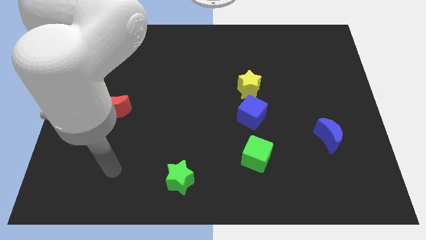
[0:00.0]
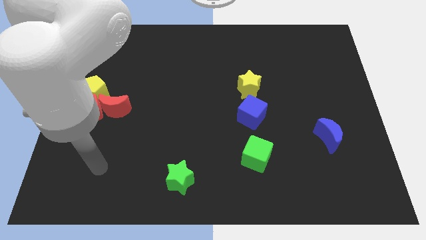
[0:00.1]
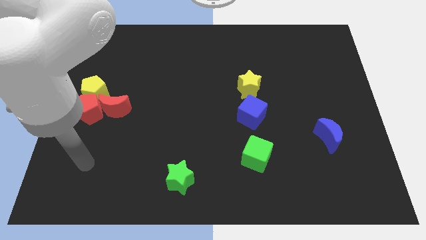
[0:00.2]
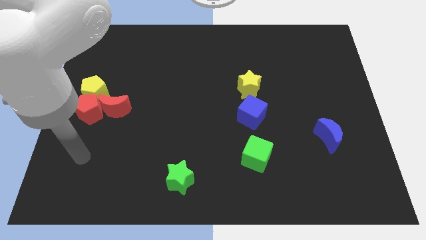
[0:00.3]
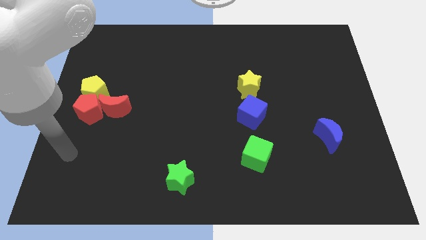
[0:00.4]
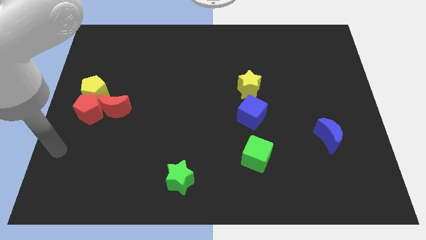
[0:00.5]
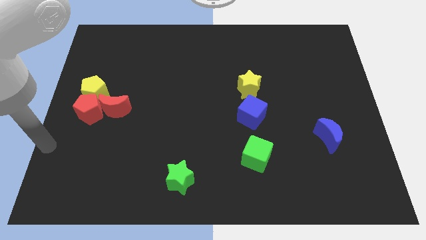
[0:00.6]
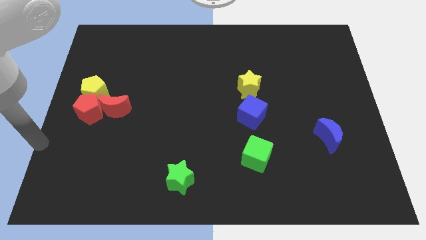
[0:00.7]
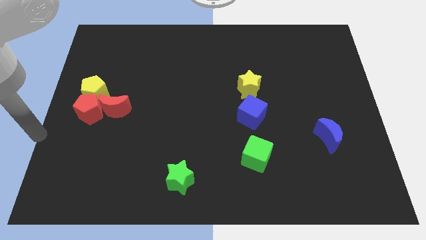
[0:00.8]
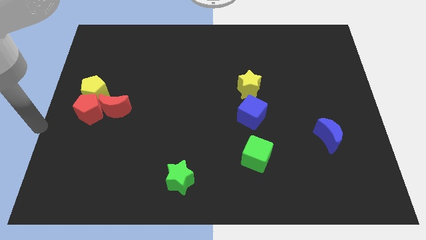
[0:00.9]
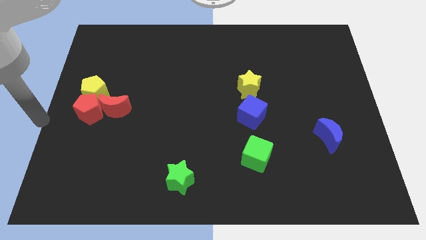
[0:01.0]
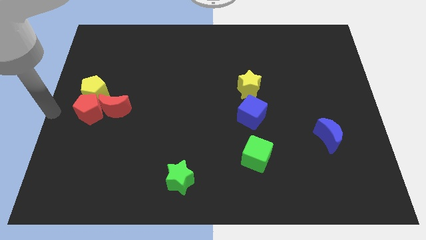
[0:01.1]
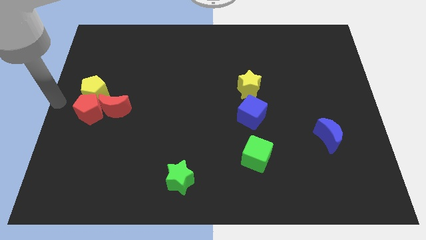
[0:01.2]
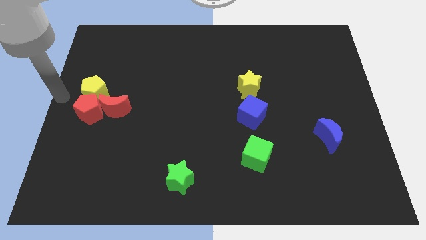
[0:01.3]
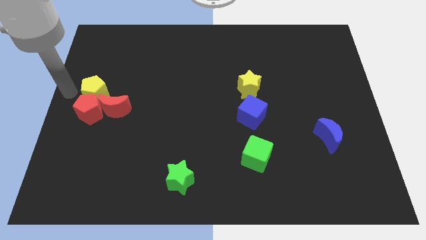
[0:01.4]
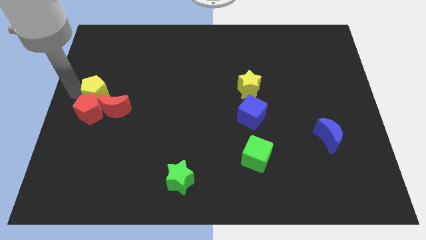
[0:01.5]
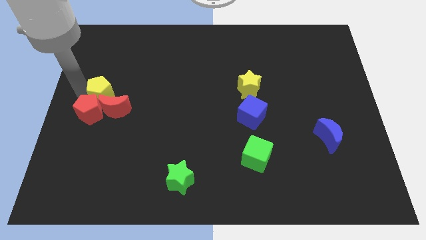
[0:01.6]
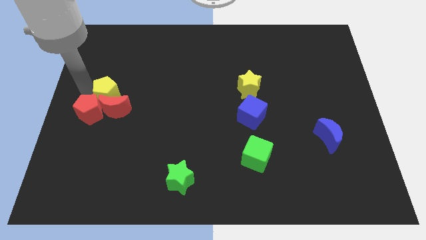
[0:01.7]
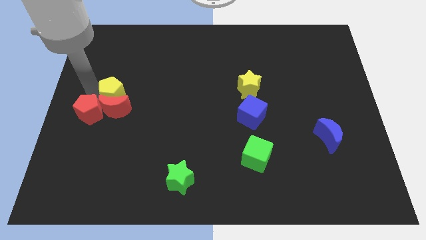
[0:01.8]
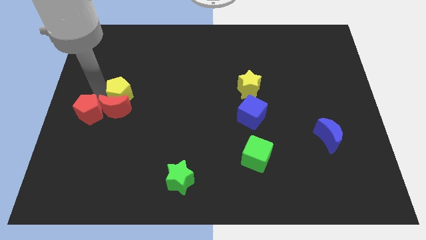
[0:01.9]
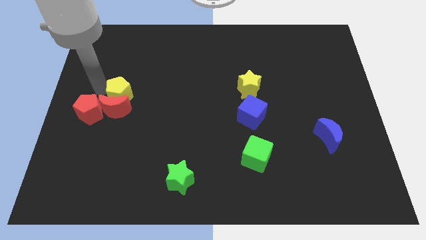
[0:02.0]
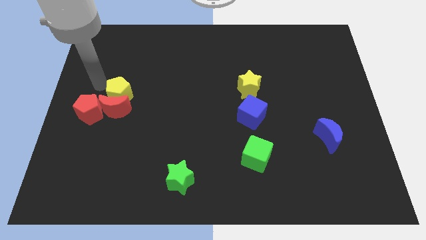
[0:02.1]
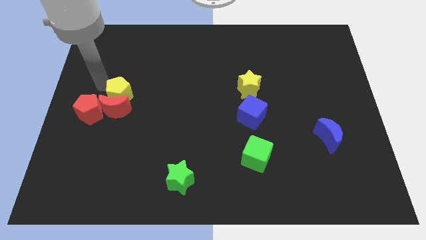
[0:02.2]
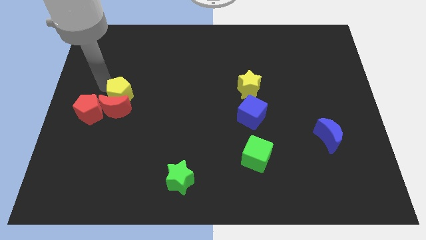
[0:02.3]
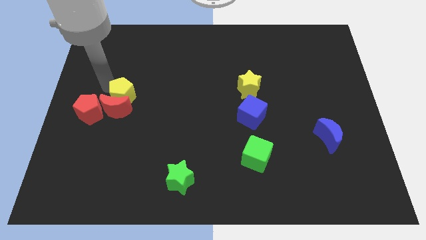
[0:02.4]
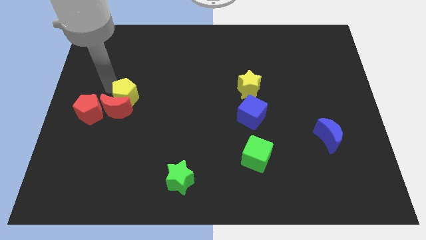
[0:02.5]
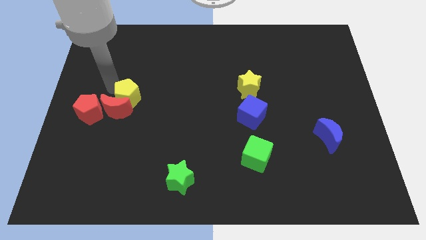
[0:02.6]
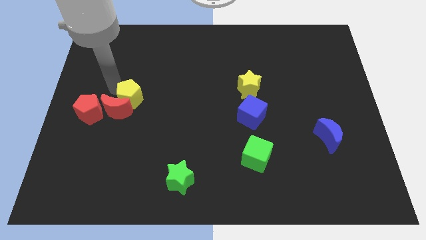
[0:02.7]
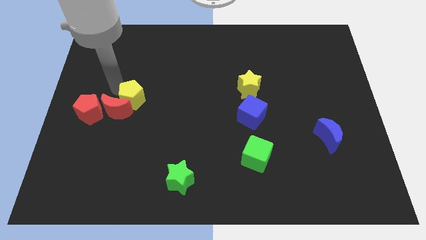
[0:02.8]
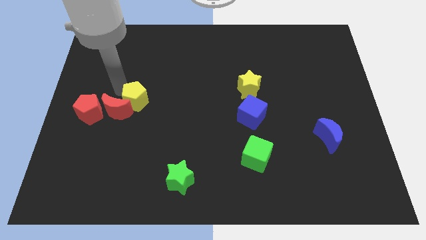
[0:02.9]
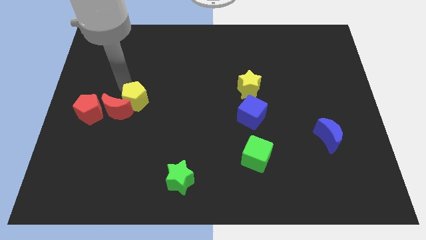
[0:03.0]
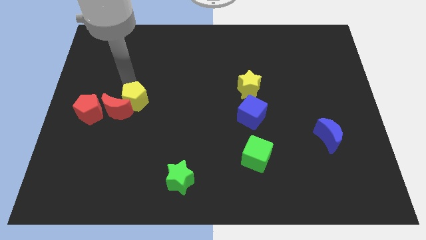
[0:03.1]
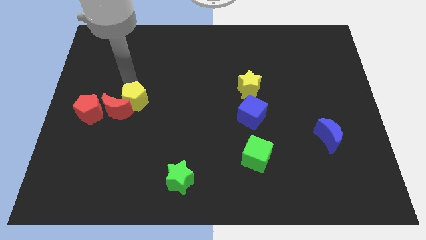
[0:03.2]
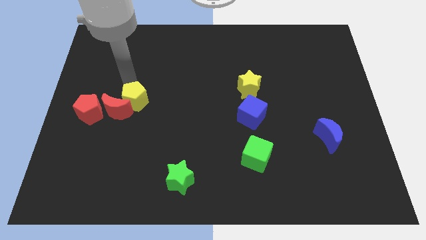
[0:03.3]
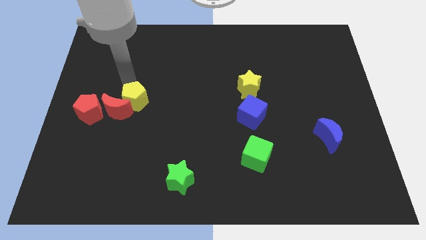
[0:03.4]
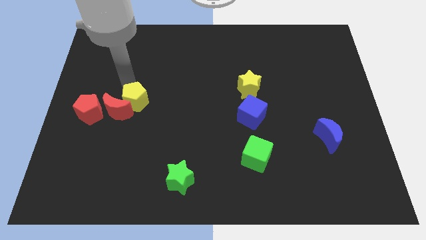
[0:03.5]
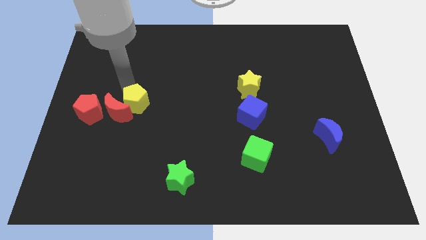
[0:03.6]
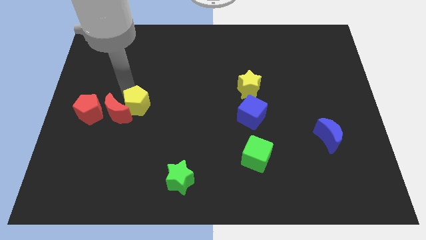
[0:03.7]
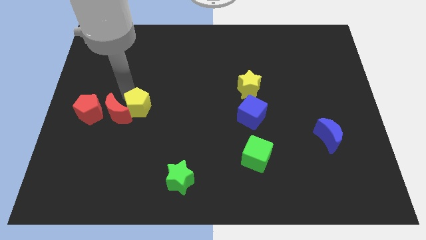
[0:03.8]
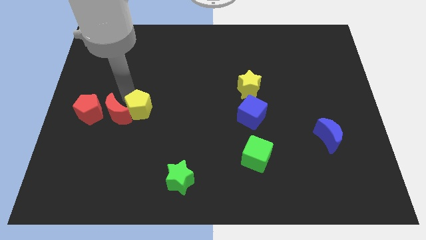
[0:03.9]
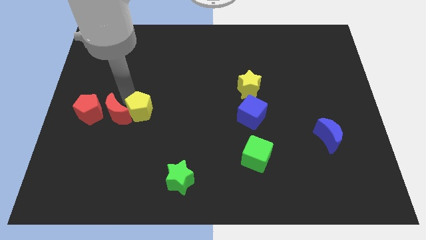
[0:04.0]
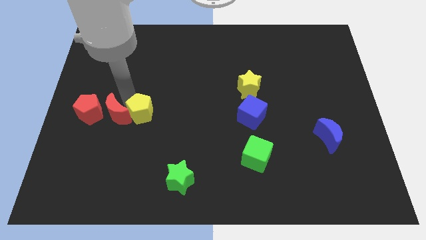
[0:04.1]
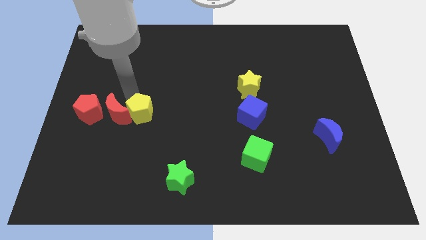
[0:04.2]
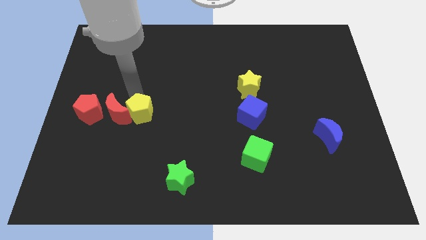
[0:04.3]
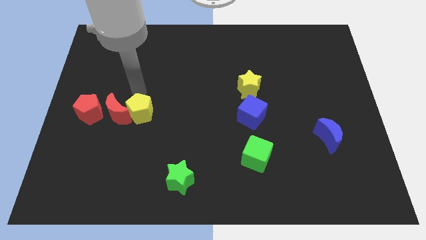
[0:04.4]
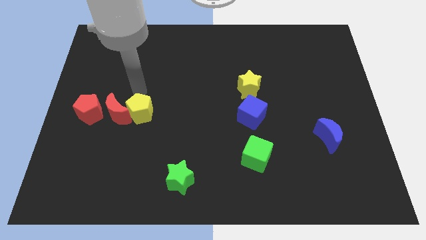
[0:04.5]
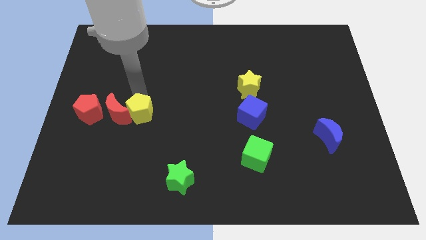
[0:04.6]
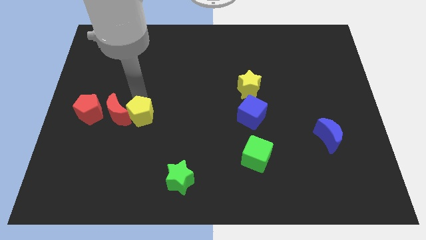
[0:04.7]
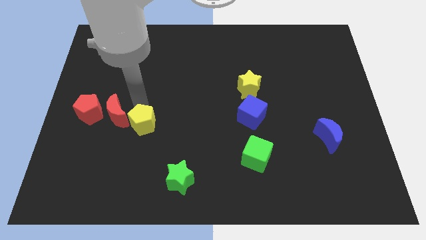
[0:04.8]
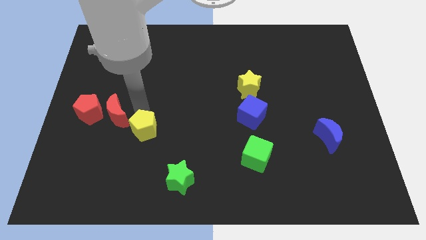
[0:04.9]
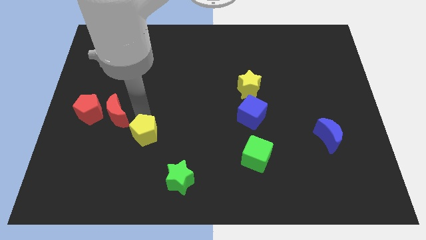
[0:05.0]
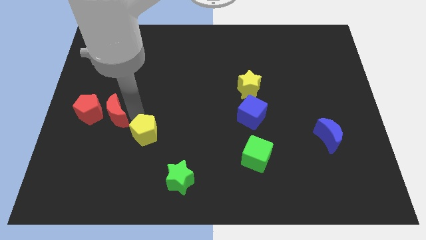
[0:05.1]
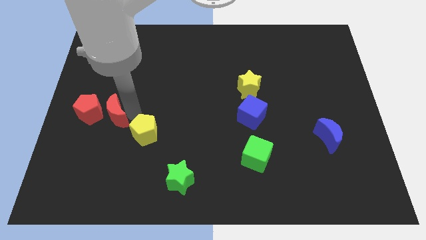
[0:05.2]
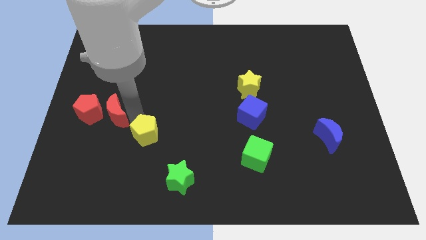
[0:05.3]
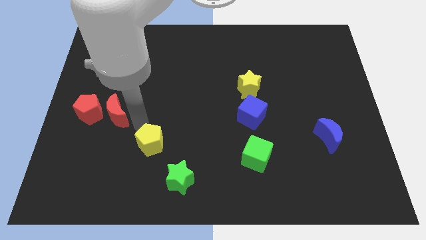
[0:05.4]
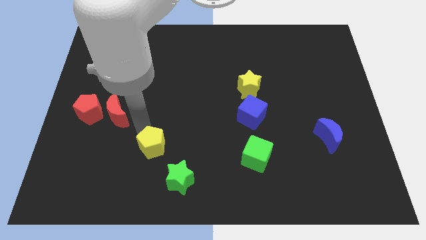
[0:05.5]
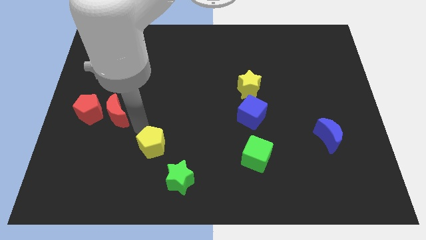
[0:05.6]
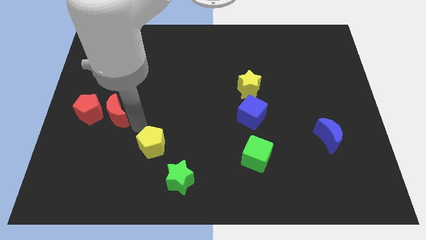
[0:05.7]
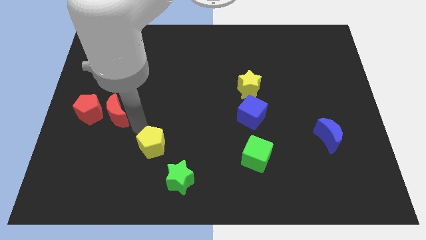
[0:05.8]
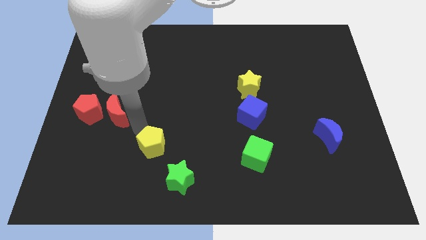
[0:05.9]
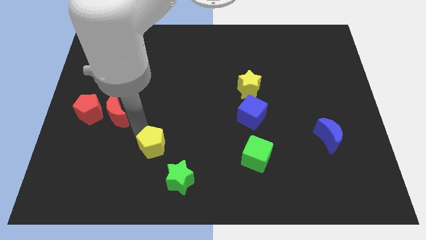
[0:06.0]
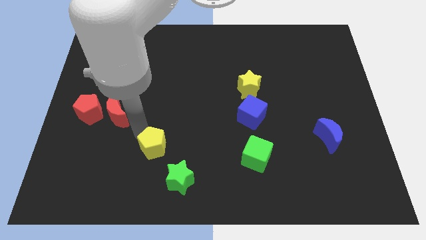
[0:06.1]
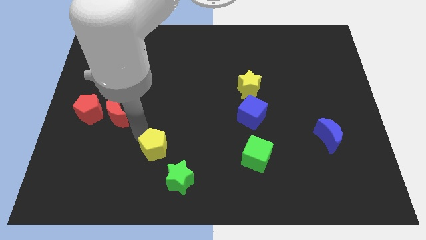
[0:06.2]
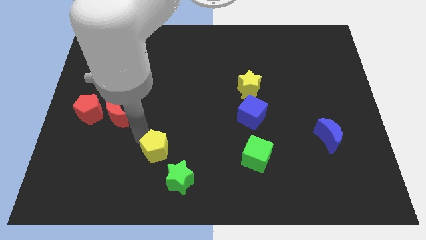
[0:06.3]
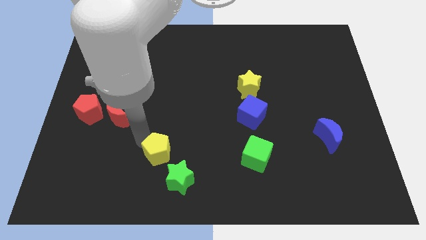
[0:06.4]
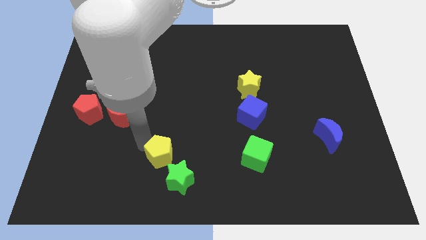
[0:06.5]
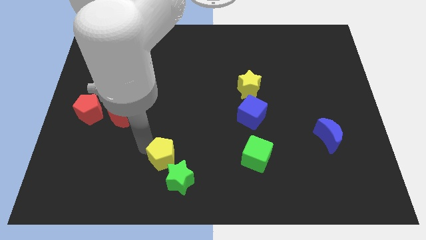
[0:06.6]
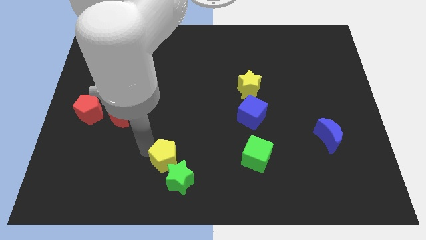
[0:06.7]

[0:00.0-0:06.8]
slide the yellow pentagon towards the green star

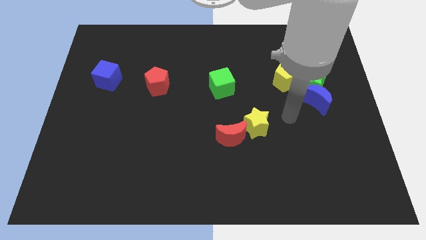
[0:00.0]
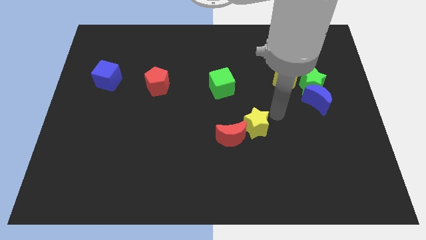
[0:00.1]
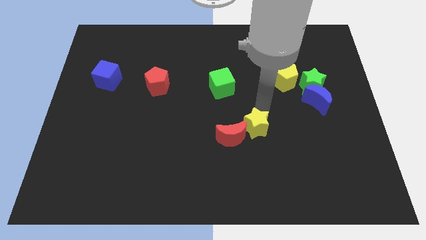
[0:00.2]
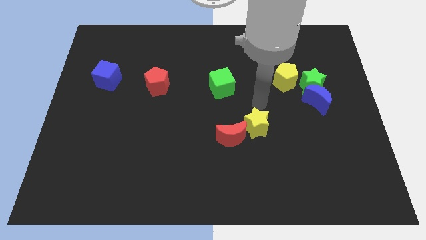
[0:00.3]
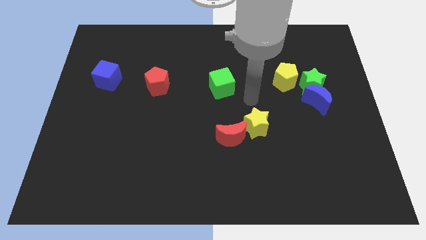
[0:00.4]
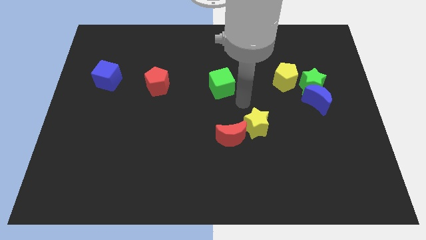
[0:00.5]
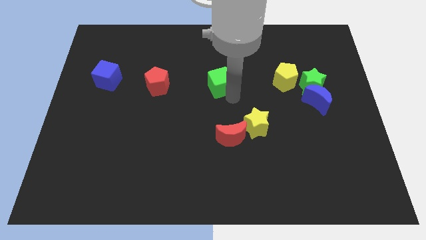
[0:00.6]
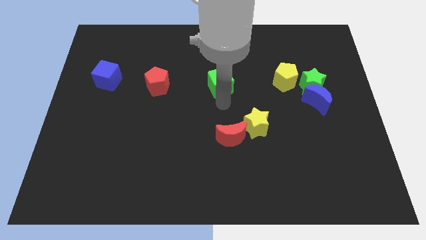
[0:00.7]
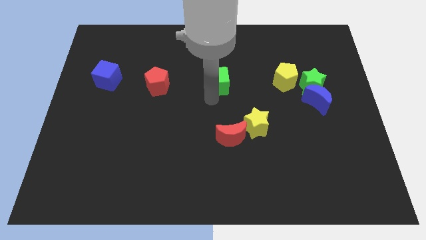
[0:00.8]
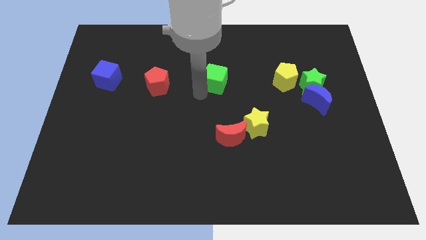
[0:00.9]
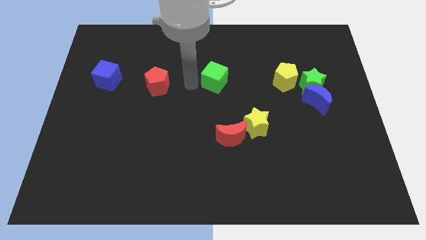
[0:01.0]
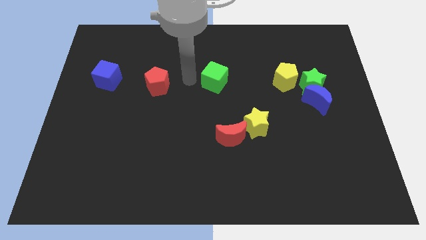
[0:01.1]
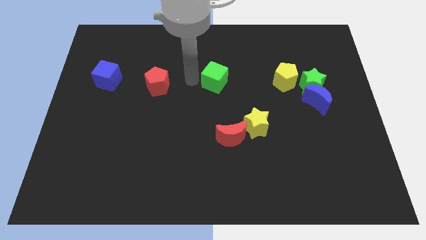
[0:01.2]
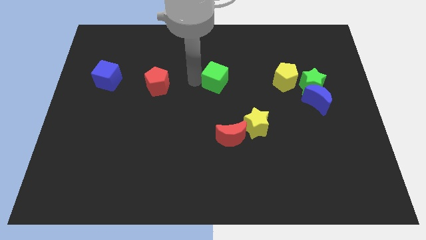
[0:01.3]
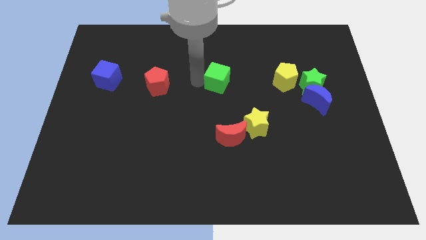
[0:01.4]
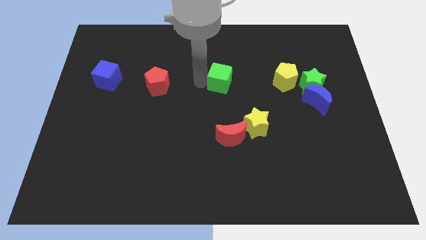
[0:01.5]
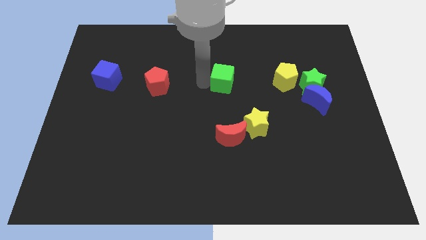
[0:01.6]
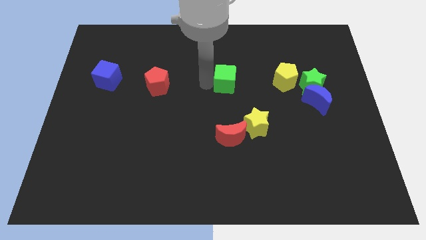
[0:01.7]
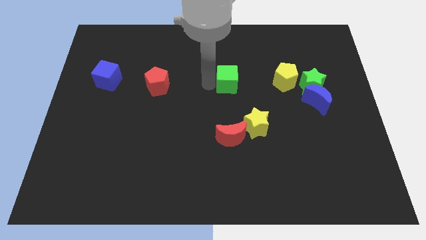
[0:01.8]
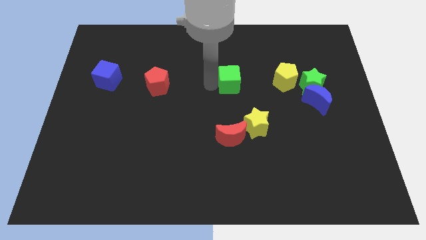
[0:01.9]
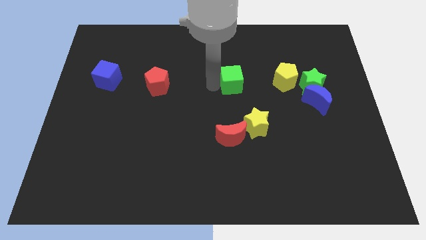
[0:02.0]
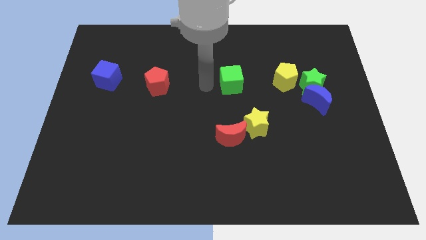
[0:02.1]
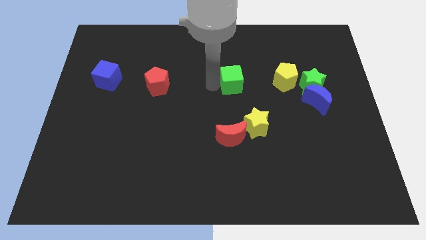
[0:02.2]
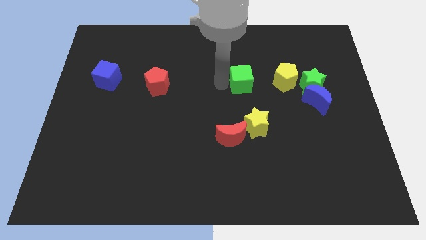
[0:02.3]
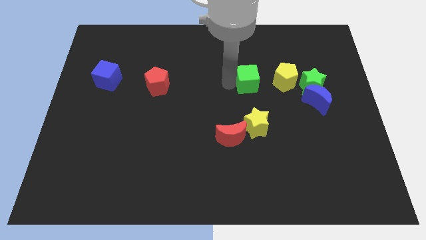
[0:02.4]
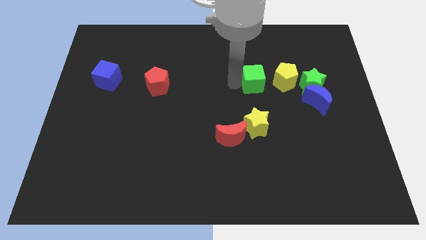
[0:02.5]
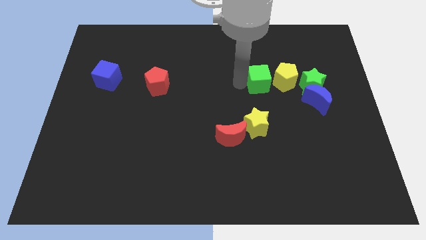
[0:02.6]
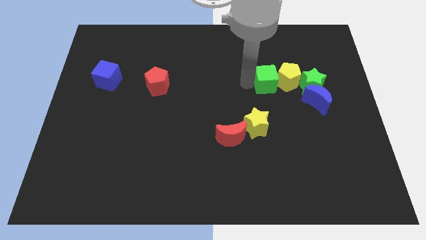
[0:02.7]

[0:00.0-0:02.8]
move the green cube towards the yellow pentagon
